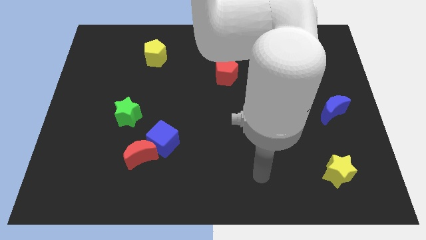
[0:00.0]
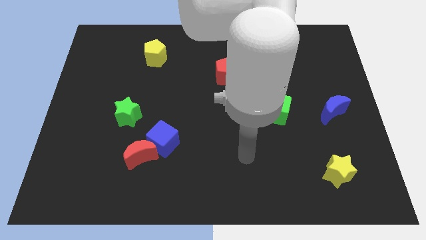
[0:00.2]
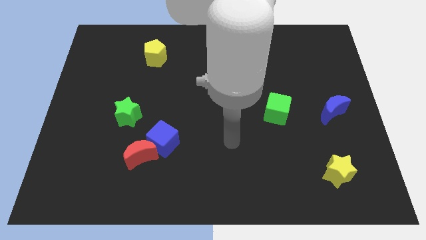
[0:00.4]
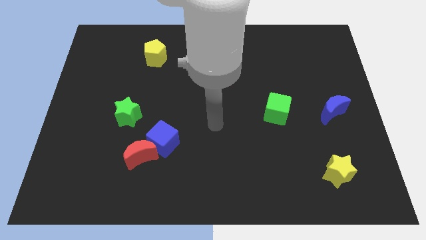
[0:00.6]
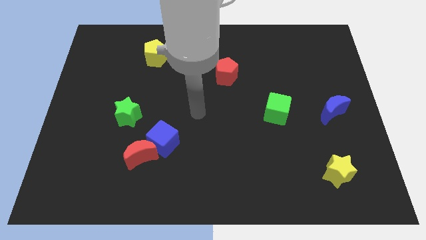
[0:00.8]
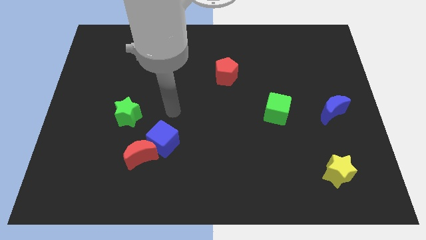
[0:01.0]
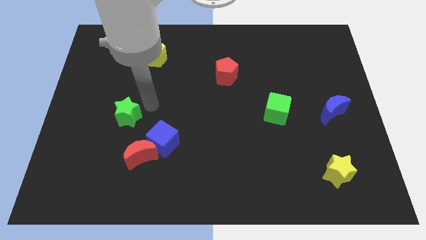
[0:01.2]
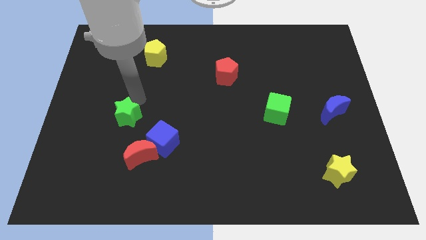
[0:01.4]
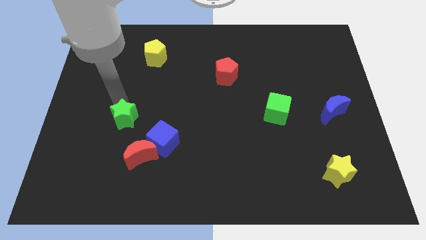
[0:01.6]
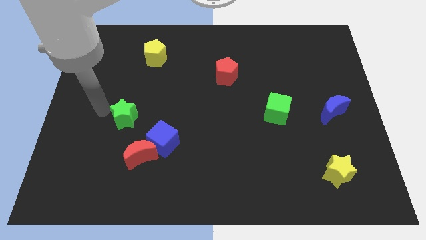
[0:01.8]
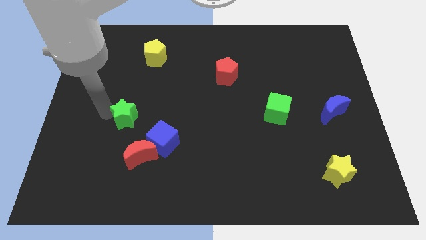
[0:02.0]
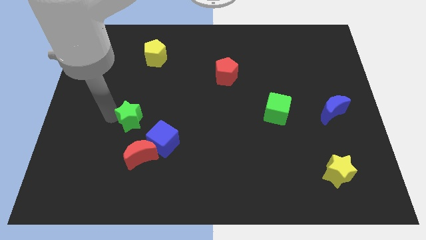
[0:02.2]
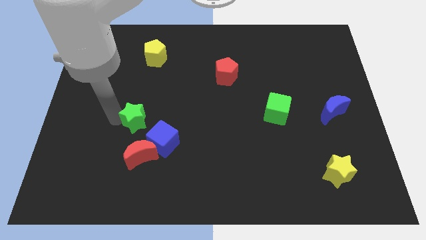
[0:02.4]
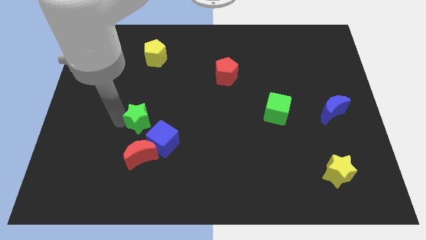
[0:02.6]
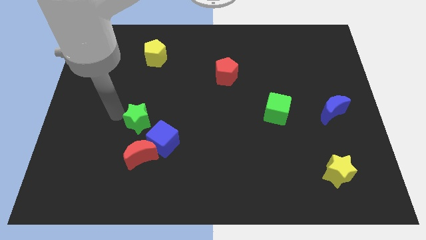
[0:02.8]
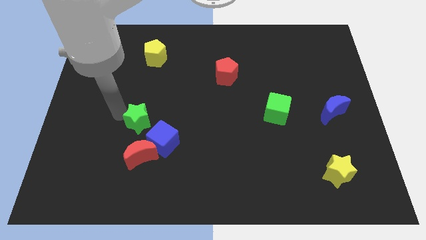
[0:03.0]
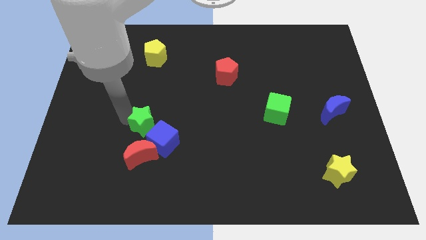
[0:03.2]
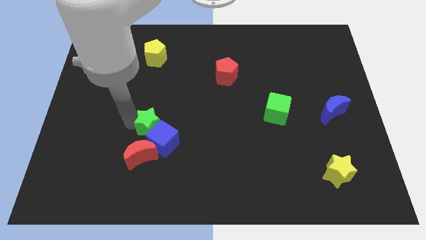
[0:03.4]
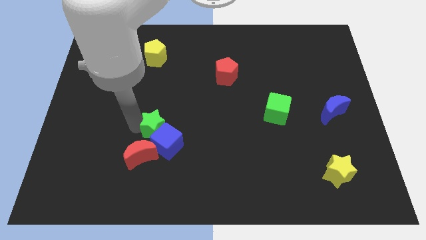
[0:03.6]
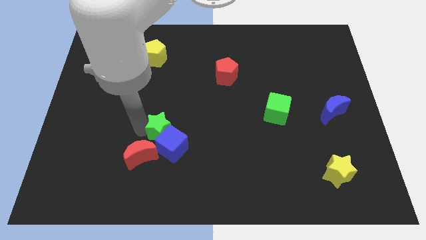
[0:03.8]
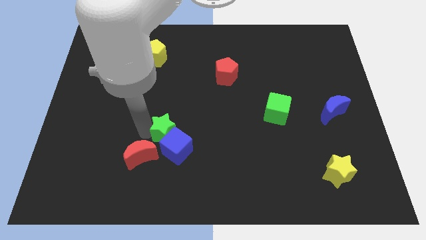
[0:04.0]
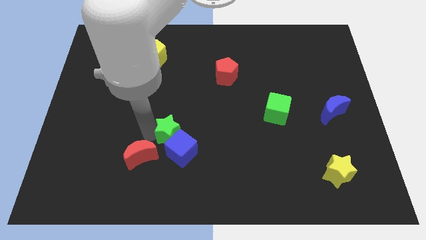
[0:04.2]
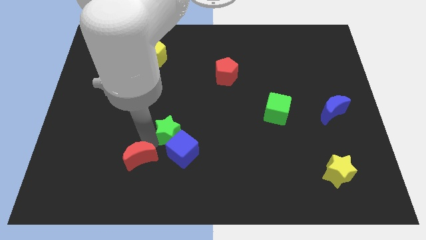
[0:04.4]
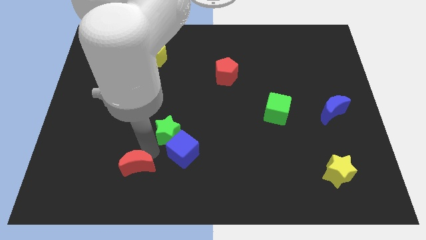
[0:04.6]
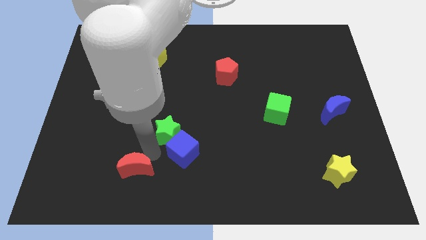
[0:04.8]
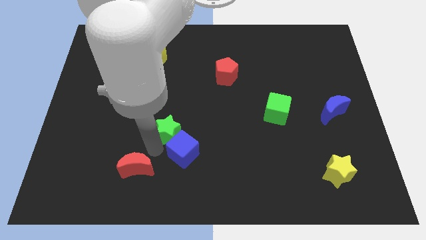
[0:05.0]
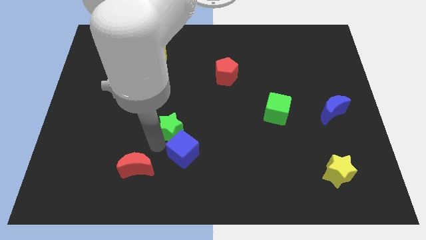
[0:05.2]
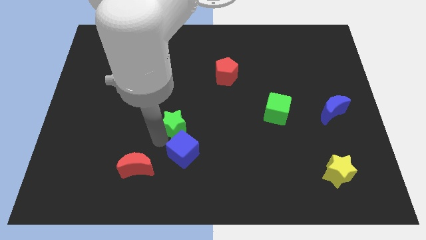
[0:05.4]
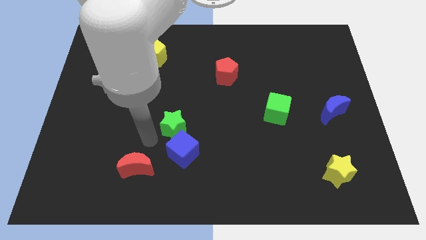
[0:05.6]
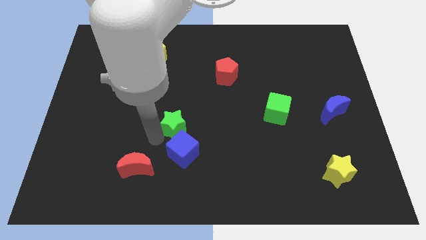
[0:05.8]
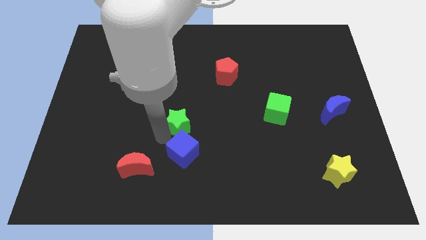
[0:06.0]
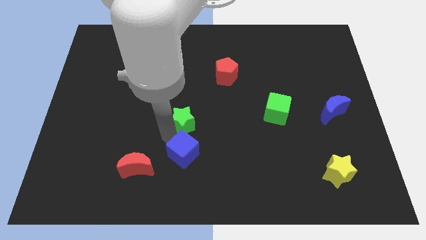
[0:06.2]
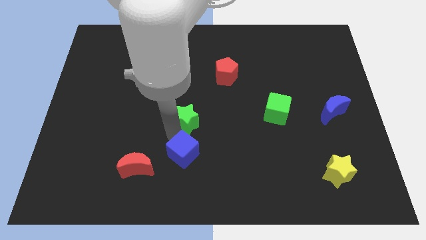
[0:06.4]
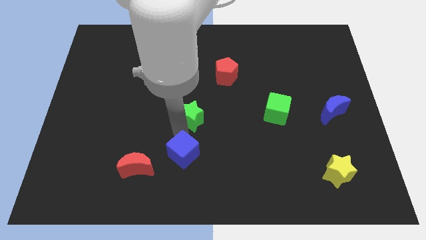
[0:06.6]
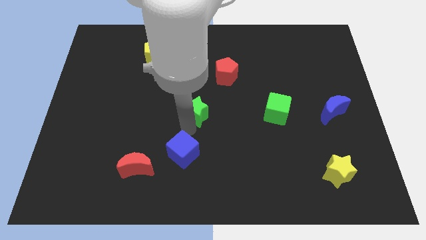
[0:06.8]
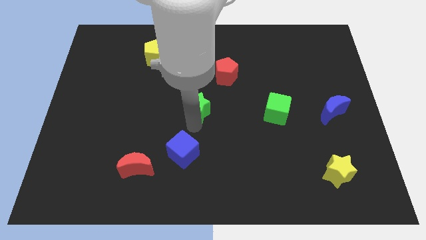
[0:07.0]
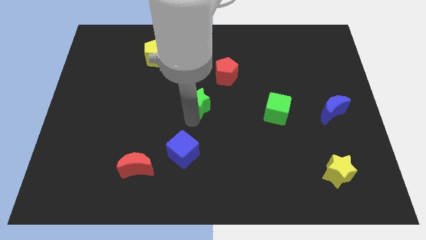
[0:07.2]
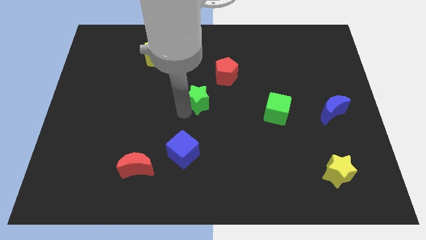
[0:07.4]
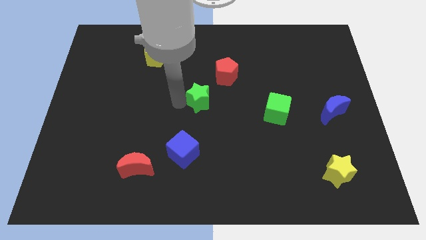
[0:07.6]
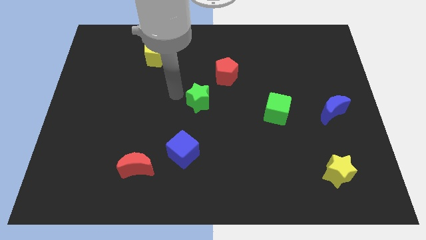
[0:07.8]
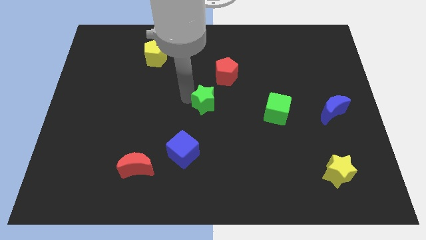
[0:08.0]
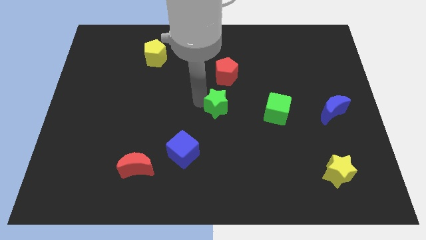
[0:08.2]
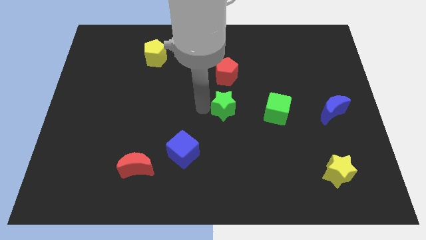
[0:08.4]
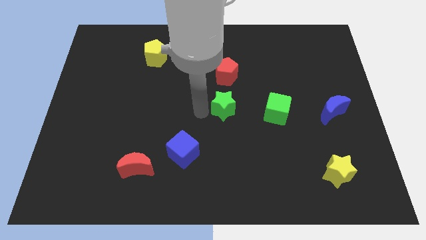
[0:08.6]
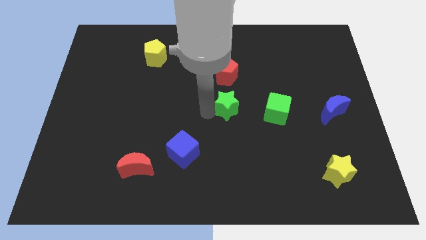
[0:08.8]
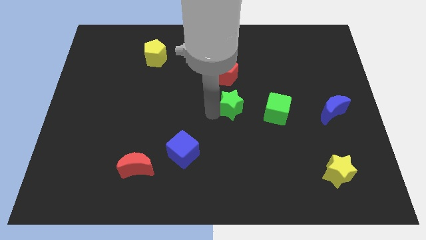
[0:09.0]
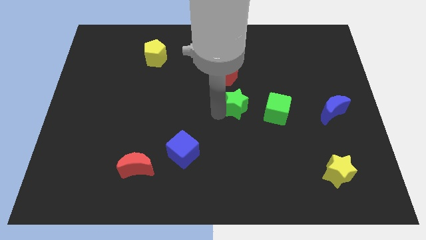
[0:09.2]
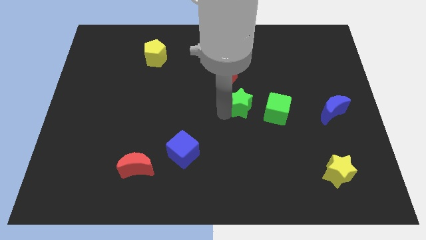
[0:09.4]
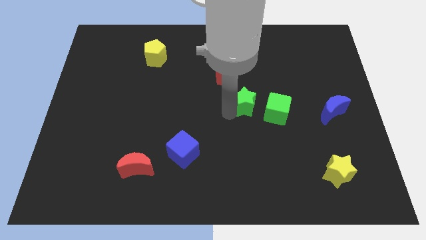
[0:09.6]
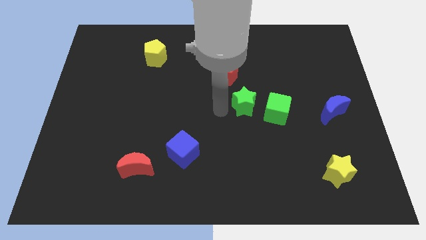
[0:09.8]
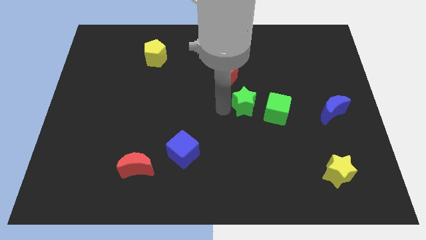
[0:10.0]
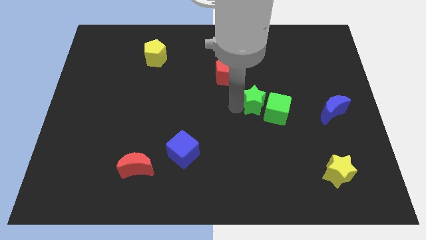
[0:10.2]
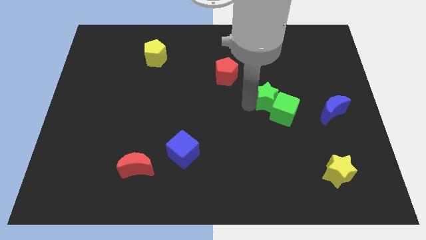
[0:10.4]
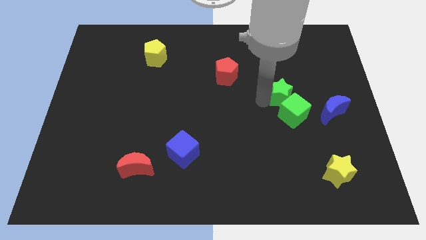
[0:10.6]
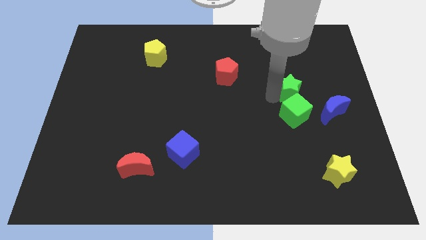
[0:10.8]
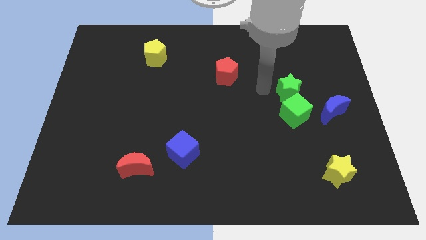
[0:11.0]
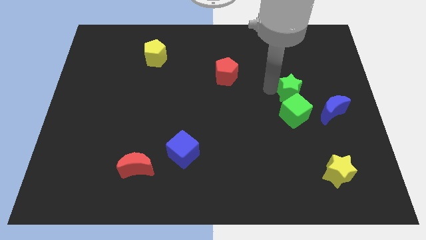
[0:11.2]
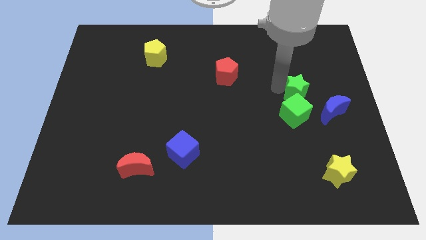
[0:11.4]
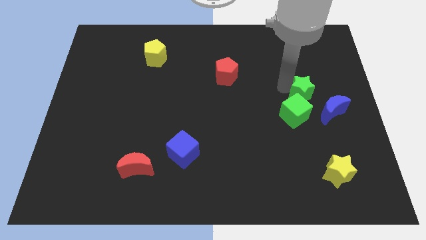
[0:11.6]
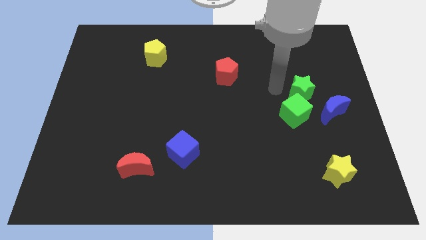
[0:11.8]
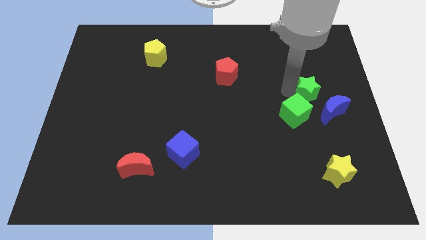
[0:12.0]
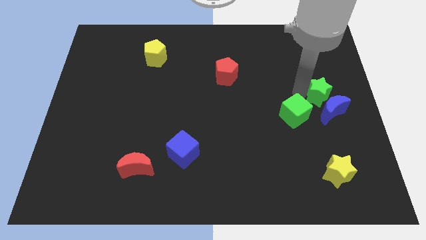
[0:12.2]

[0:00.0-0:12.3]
slide the green star to the right side of the board
